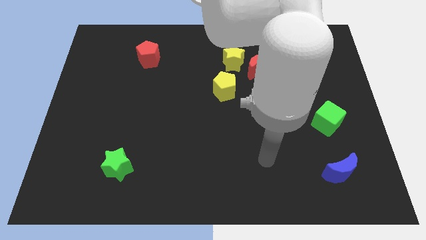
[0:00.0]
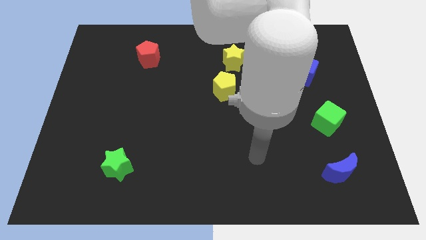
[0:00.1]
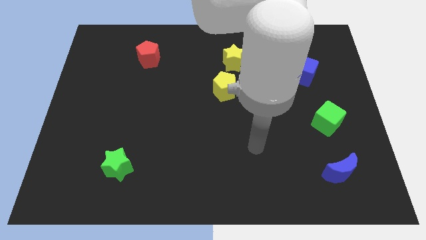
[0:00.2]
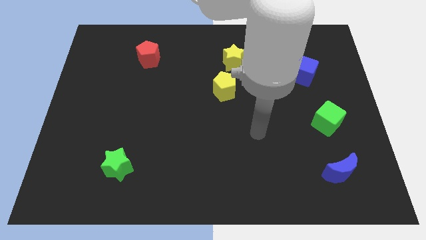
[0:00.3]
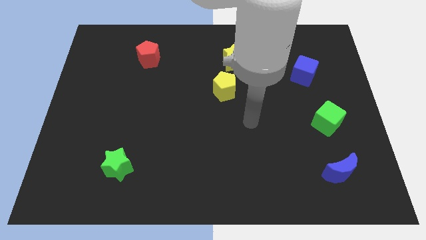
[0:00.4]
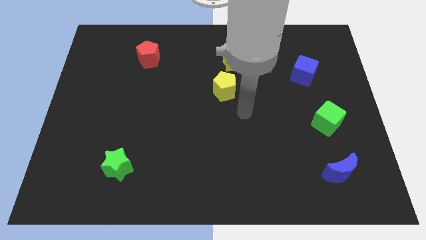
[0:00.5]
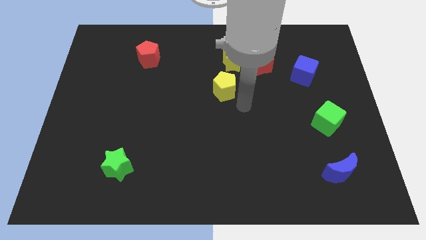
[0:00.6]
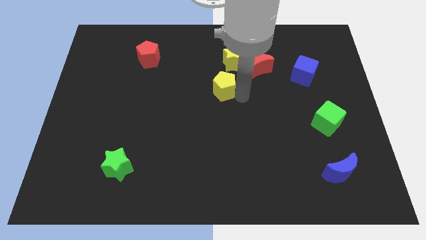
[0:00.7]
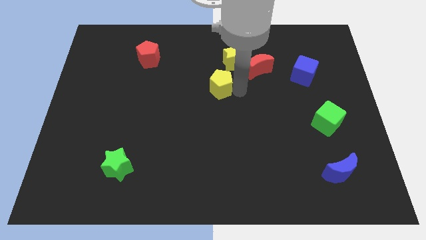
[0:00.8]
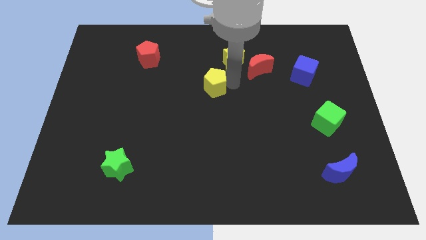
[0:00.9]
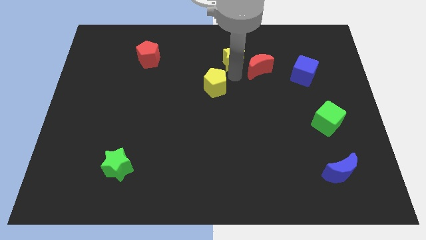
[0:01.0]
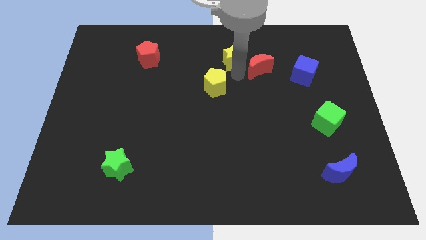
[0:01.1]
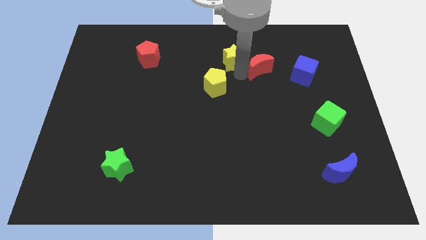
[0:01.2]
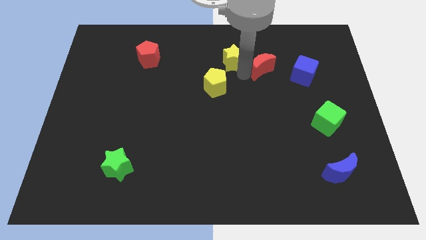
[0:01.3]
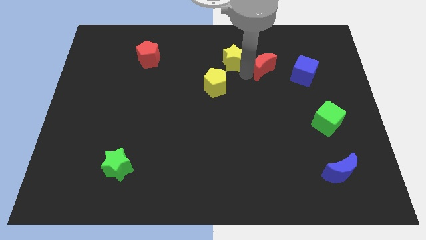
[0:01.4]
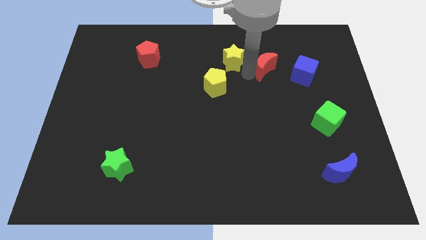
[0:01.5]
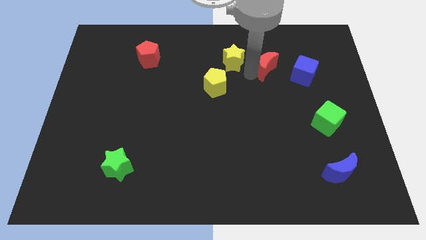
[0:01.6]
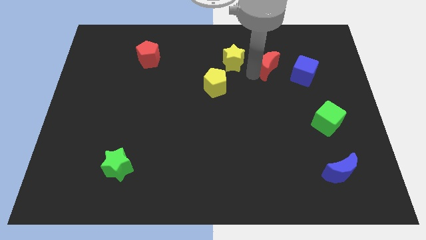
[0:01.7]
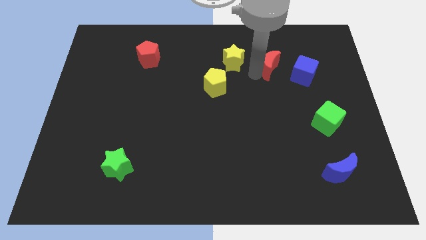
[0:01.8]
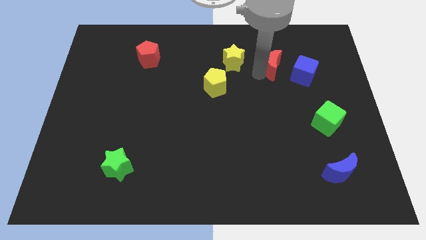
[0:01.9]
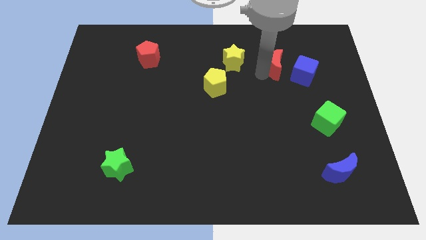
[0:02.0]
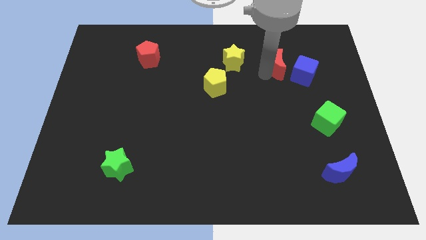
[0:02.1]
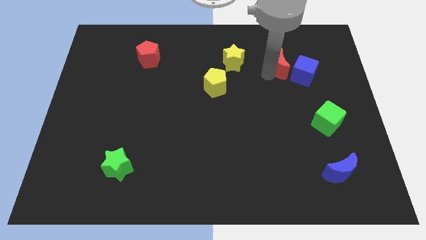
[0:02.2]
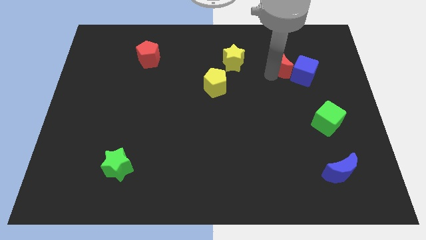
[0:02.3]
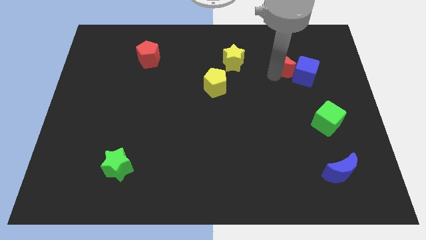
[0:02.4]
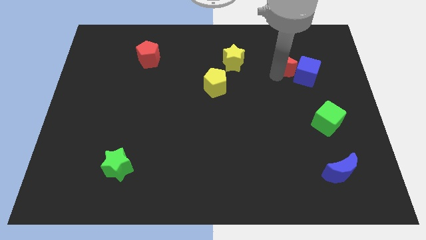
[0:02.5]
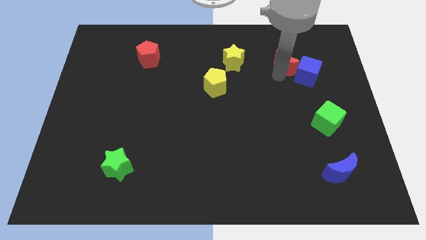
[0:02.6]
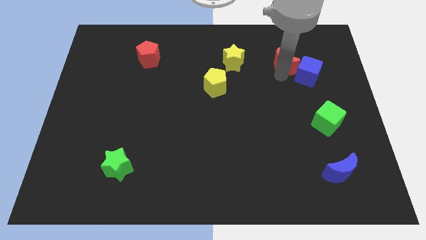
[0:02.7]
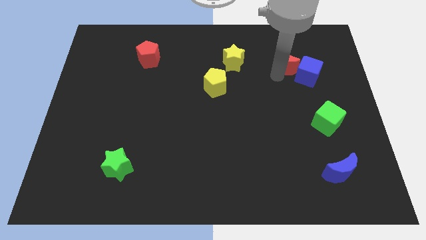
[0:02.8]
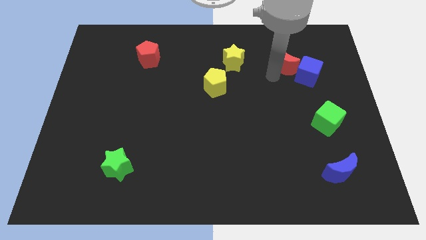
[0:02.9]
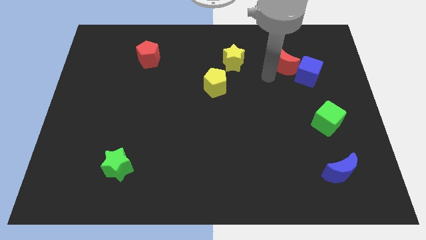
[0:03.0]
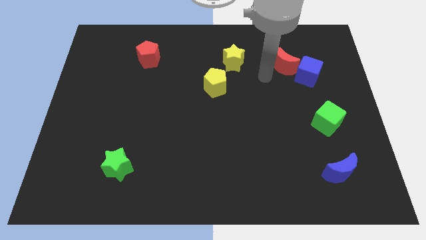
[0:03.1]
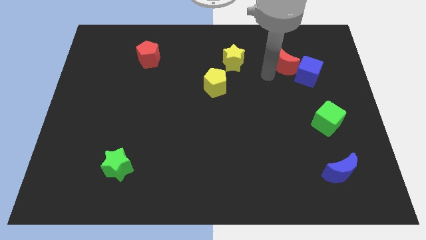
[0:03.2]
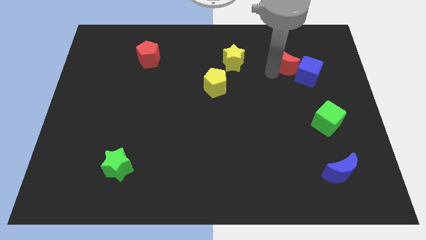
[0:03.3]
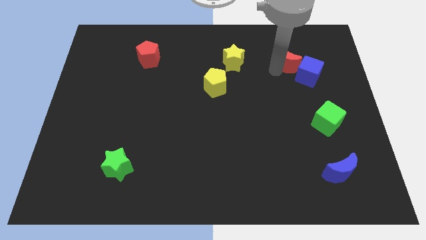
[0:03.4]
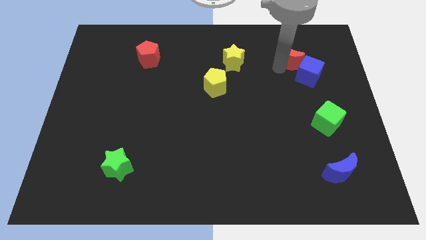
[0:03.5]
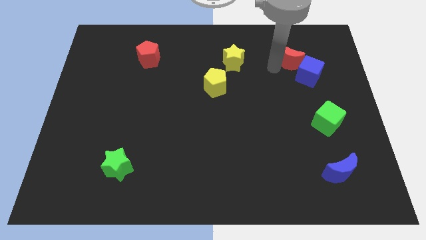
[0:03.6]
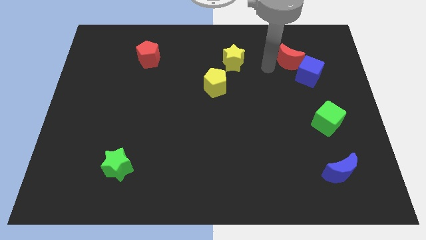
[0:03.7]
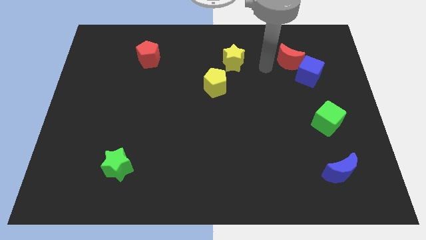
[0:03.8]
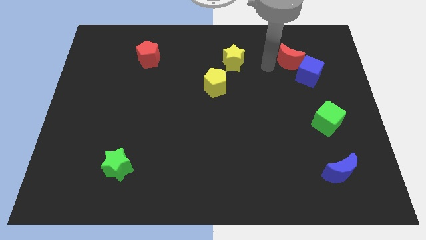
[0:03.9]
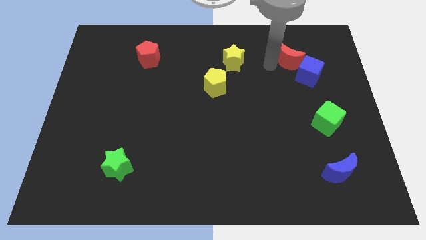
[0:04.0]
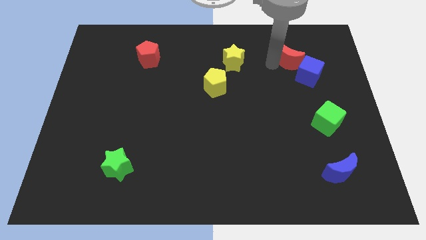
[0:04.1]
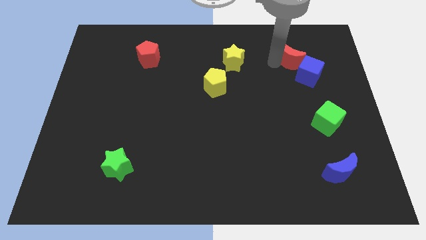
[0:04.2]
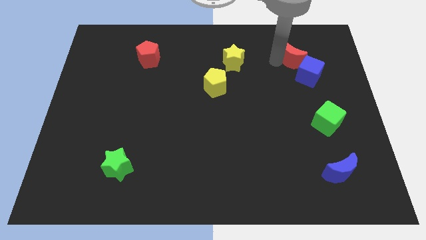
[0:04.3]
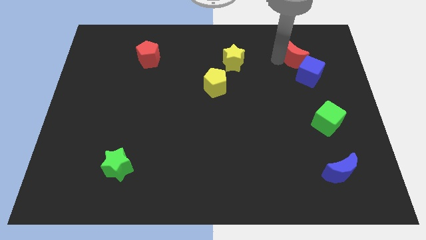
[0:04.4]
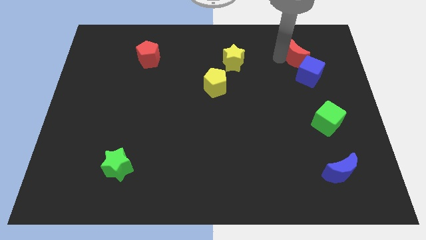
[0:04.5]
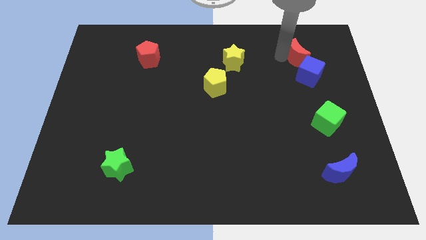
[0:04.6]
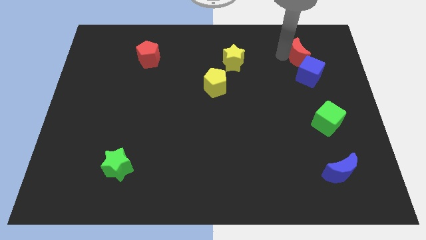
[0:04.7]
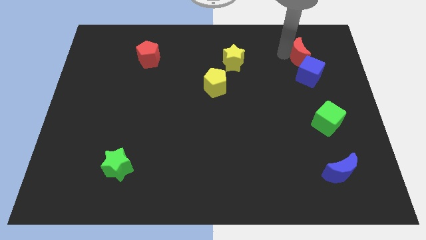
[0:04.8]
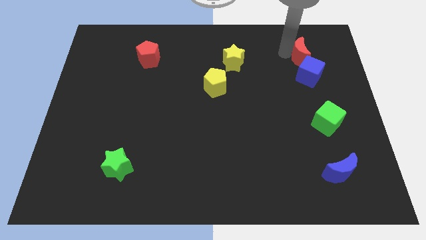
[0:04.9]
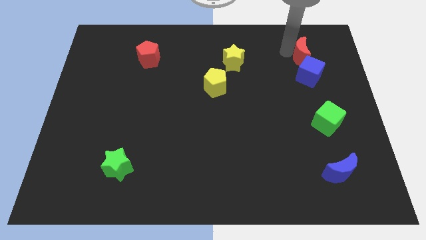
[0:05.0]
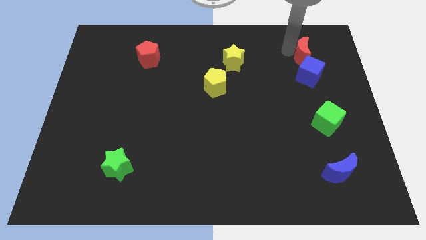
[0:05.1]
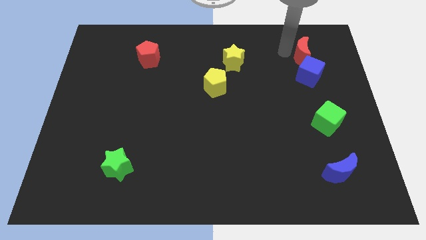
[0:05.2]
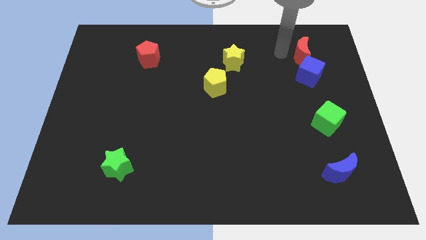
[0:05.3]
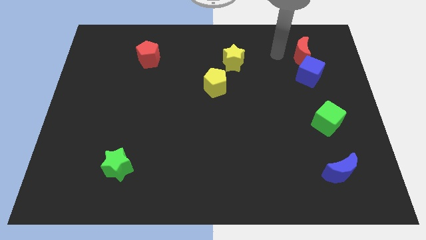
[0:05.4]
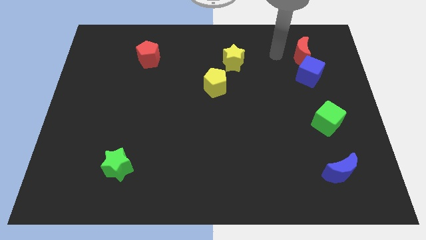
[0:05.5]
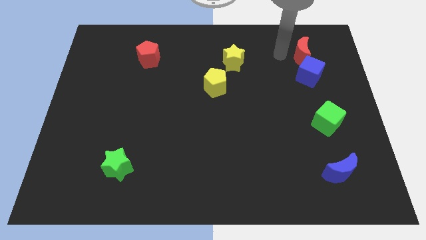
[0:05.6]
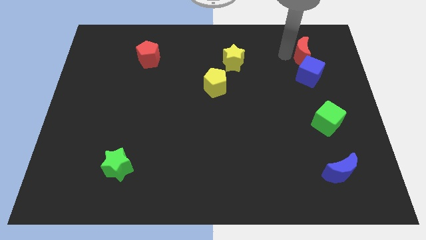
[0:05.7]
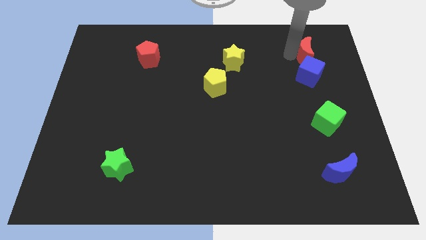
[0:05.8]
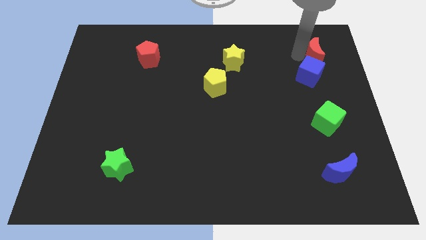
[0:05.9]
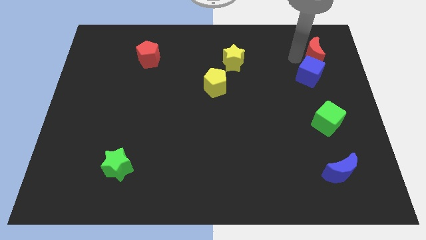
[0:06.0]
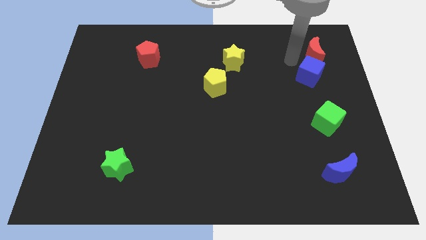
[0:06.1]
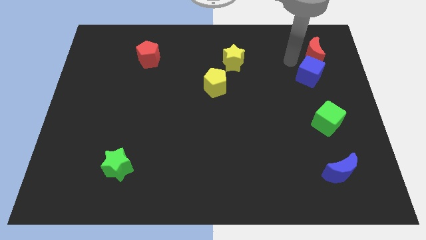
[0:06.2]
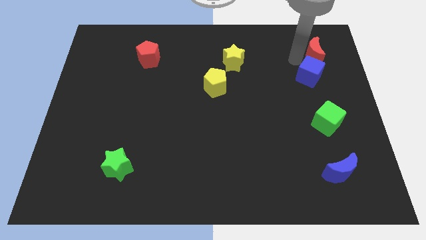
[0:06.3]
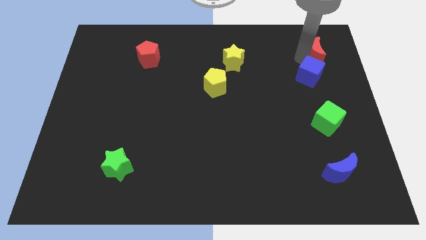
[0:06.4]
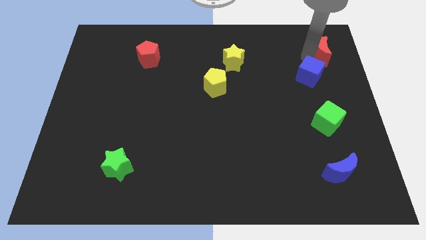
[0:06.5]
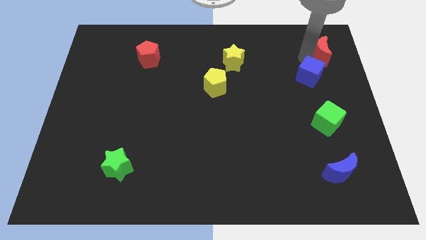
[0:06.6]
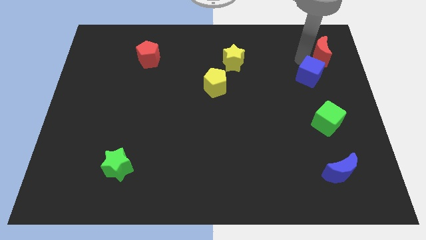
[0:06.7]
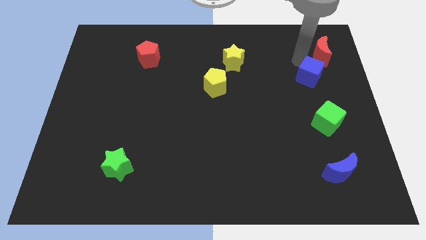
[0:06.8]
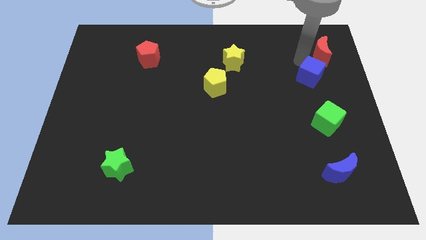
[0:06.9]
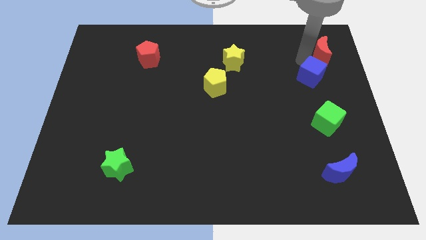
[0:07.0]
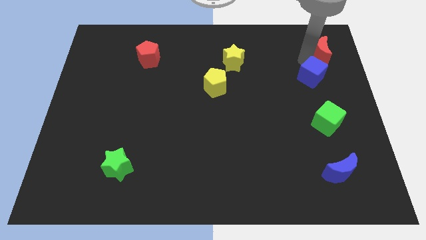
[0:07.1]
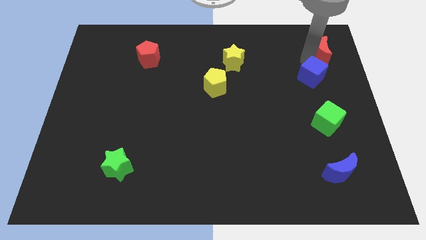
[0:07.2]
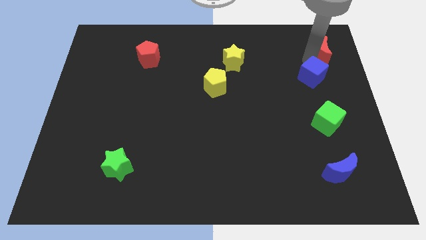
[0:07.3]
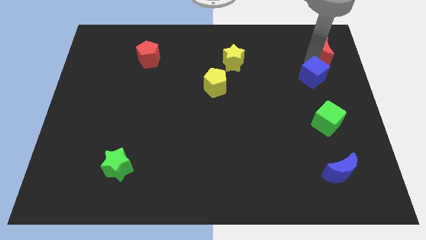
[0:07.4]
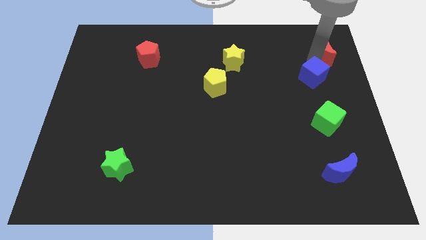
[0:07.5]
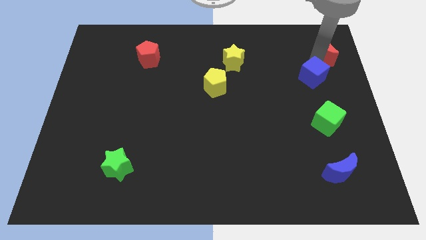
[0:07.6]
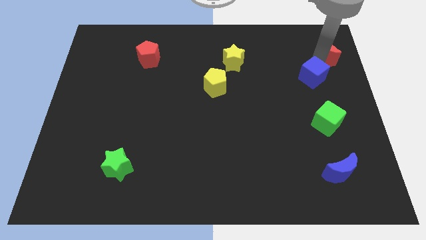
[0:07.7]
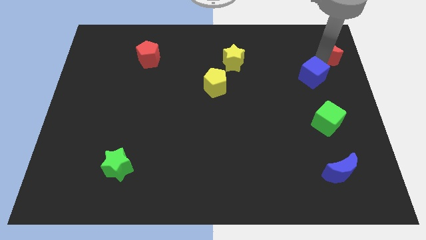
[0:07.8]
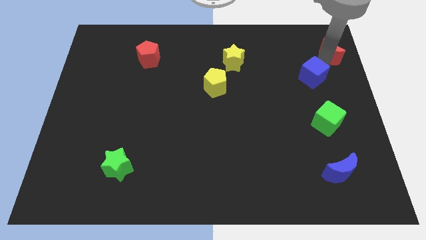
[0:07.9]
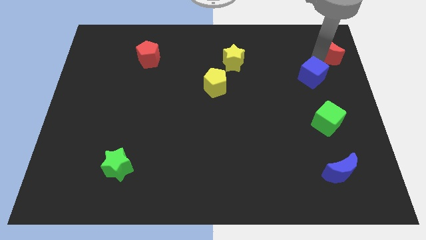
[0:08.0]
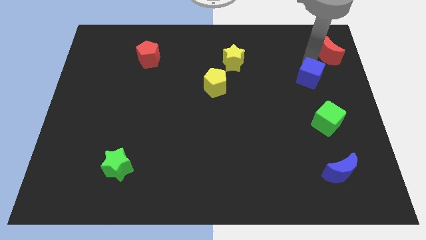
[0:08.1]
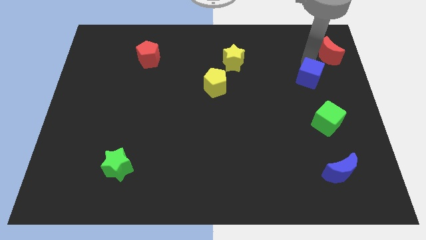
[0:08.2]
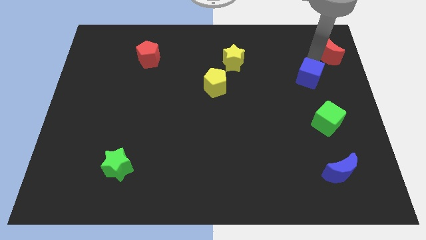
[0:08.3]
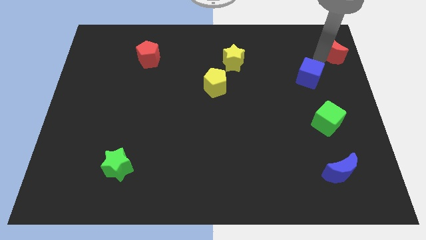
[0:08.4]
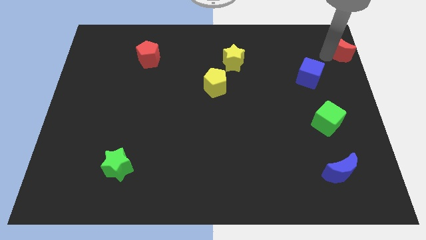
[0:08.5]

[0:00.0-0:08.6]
slide the red moon to the top right
